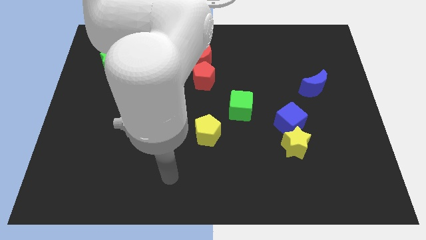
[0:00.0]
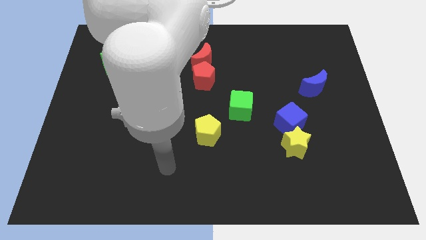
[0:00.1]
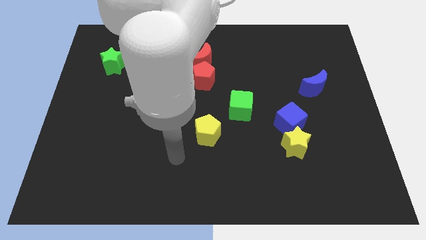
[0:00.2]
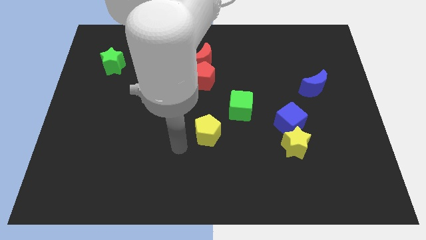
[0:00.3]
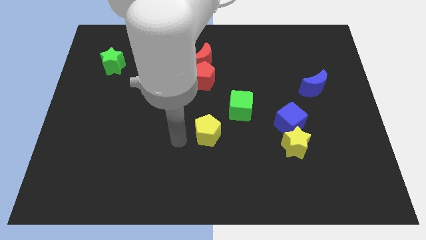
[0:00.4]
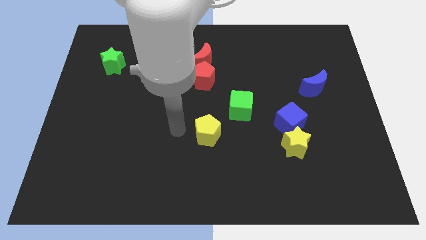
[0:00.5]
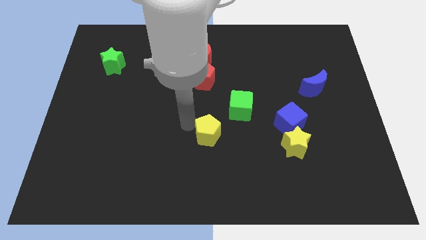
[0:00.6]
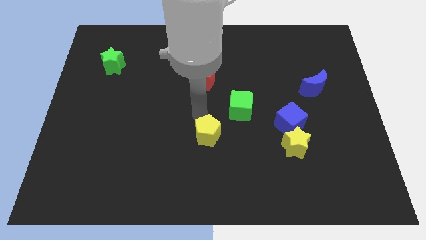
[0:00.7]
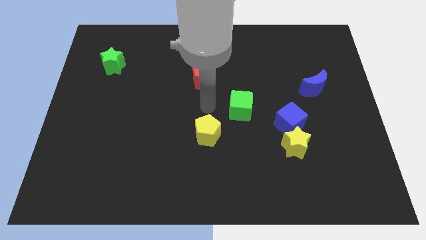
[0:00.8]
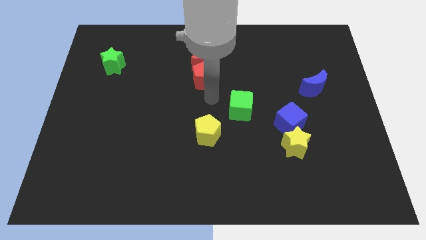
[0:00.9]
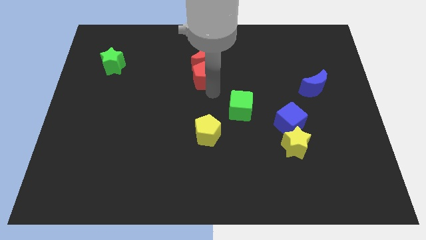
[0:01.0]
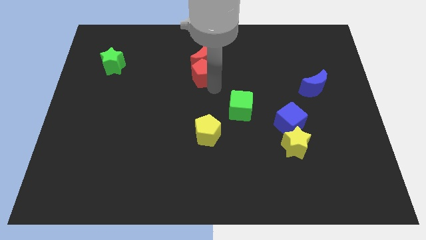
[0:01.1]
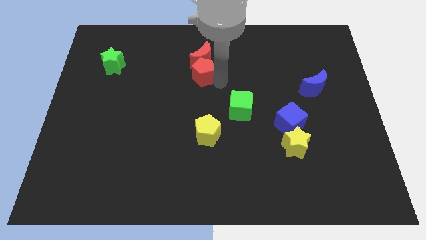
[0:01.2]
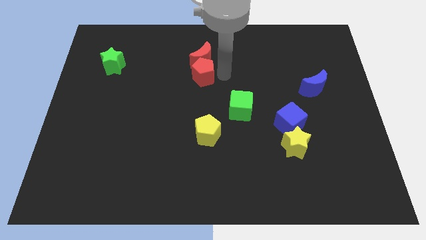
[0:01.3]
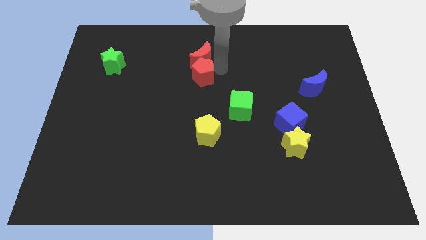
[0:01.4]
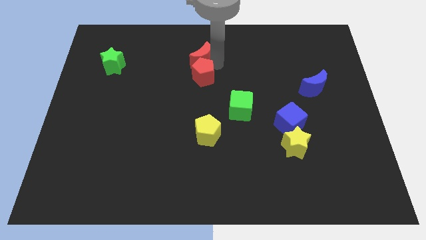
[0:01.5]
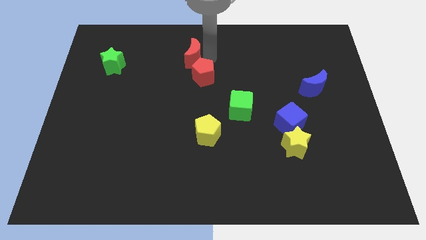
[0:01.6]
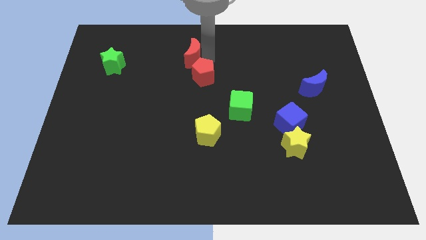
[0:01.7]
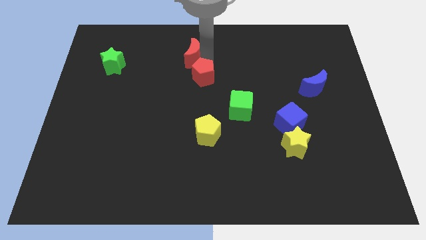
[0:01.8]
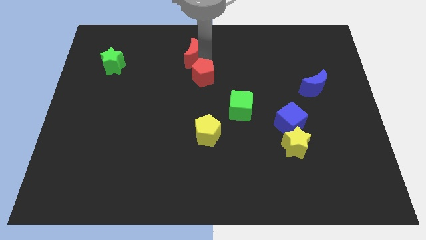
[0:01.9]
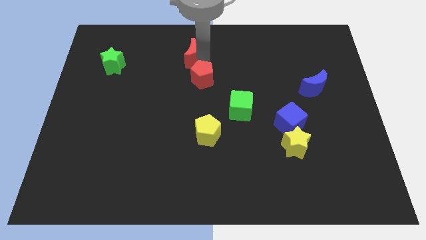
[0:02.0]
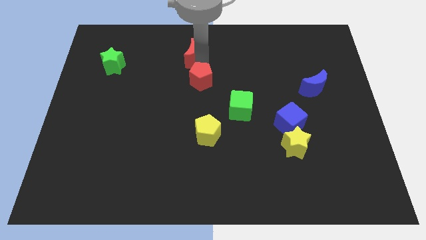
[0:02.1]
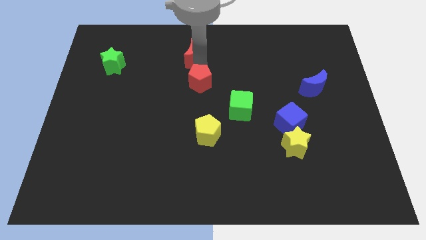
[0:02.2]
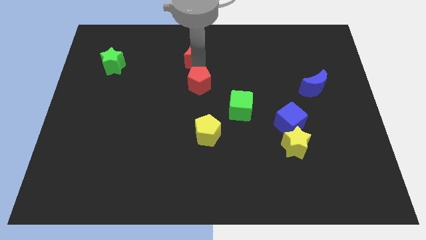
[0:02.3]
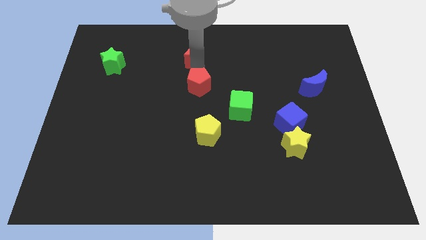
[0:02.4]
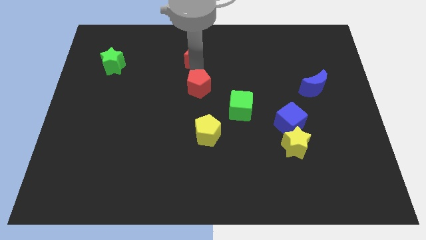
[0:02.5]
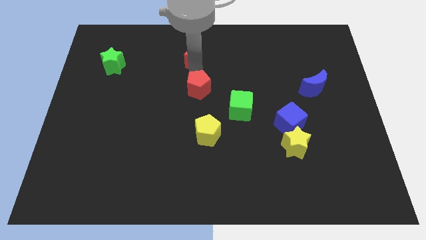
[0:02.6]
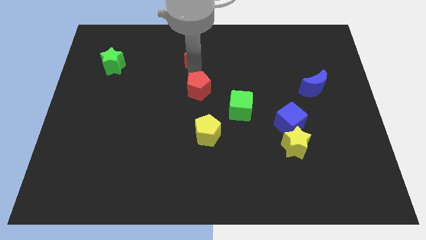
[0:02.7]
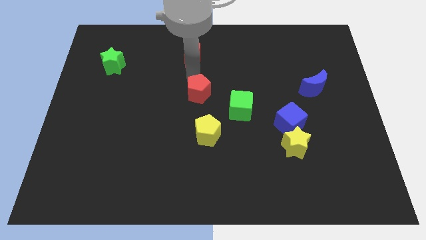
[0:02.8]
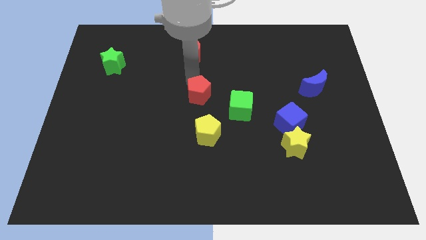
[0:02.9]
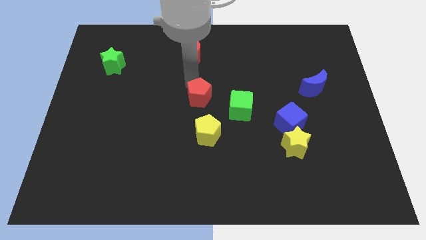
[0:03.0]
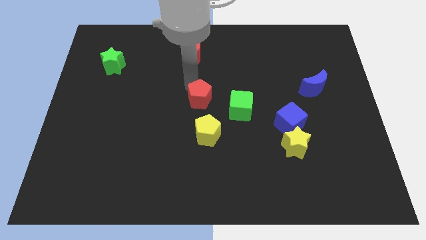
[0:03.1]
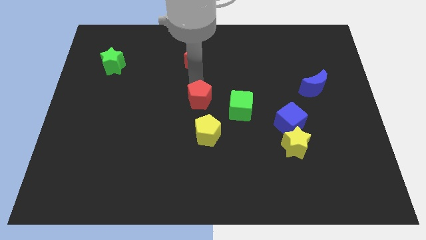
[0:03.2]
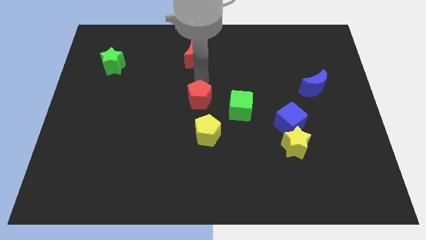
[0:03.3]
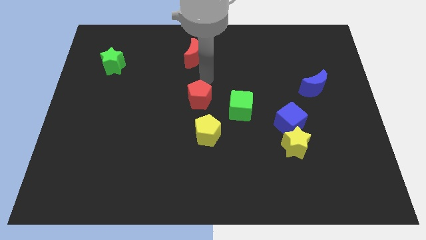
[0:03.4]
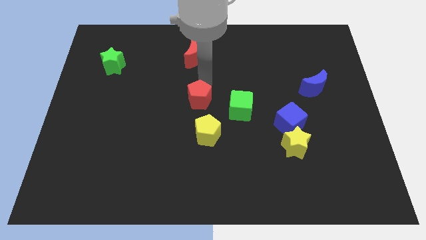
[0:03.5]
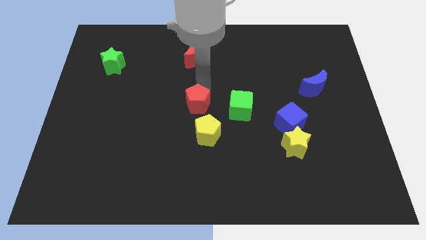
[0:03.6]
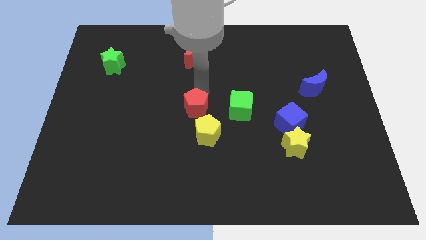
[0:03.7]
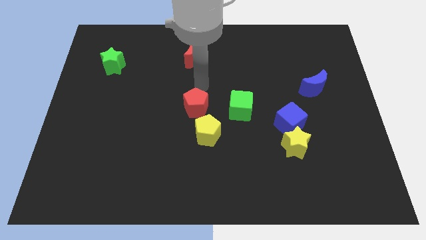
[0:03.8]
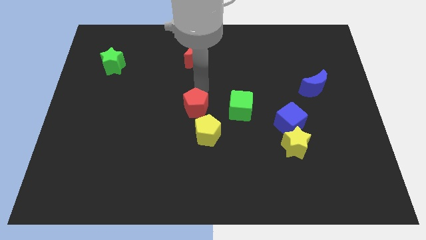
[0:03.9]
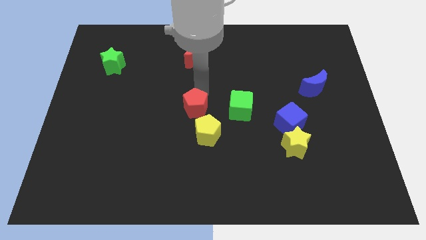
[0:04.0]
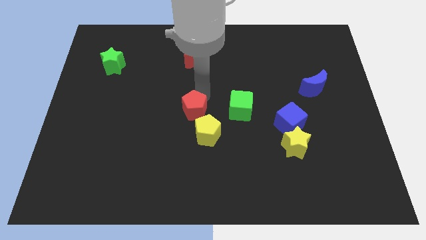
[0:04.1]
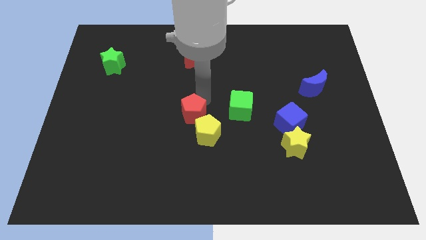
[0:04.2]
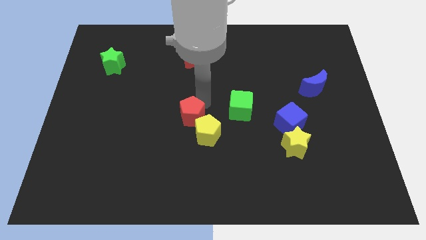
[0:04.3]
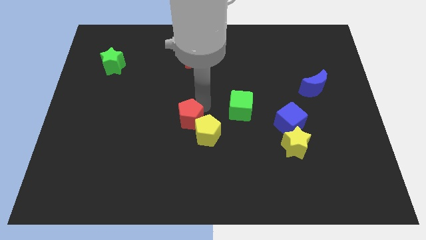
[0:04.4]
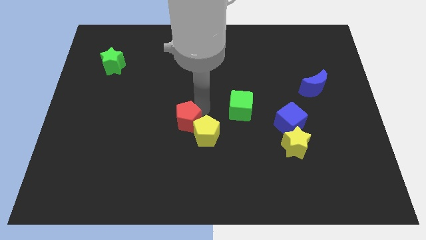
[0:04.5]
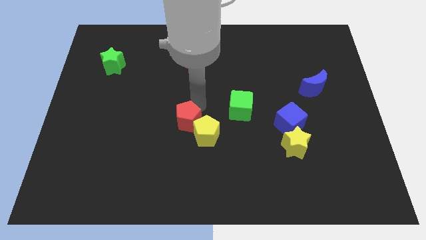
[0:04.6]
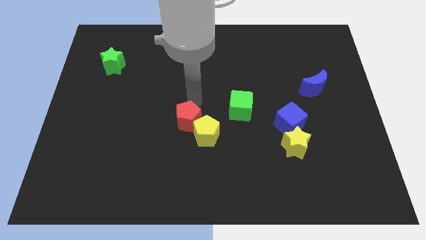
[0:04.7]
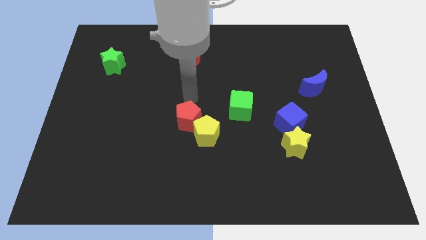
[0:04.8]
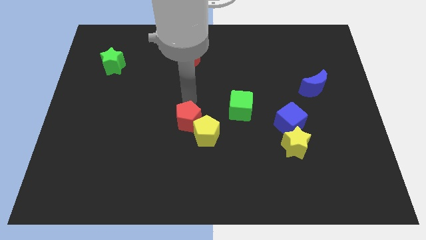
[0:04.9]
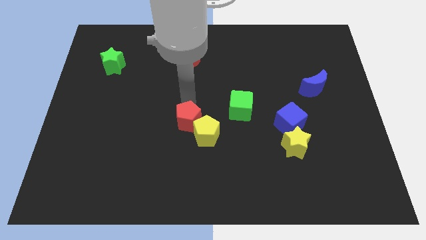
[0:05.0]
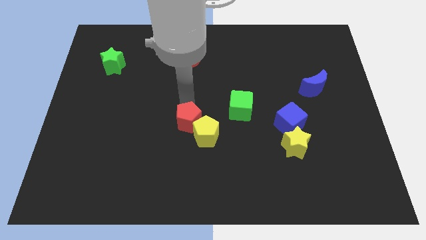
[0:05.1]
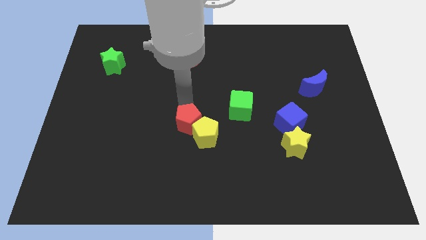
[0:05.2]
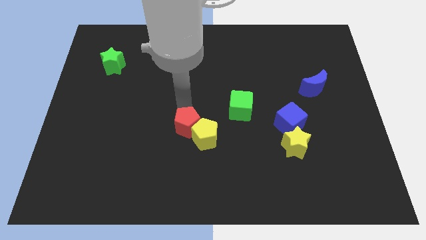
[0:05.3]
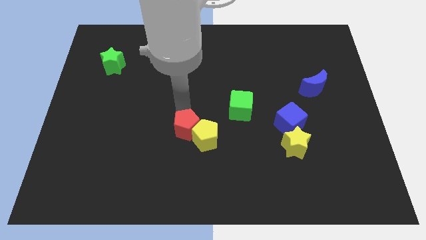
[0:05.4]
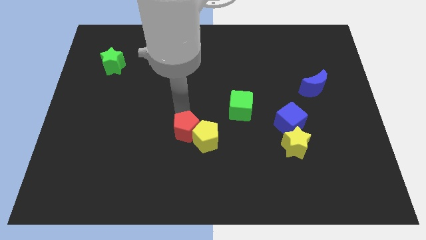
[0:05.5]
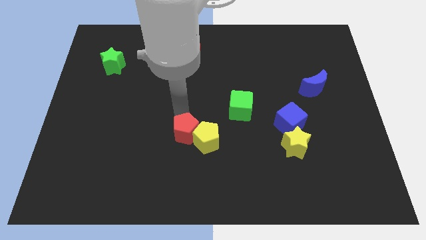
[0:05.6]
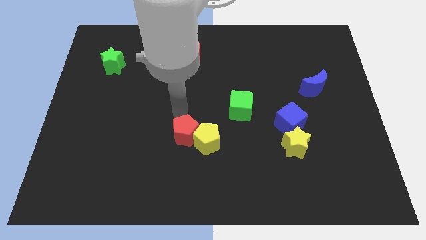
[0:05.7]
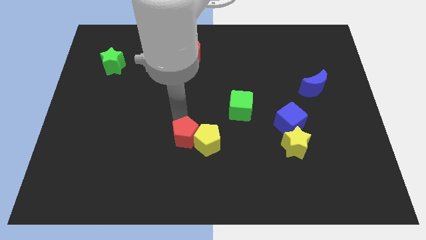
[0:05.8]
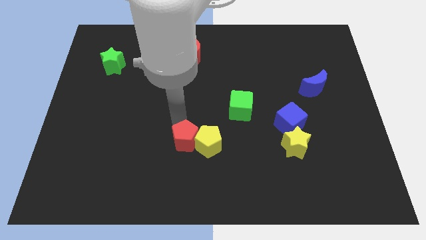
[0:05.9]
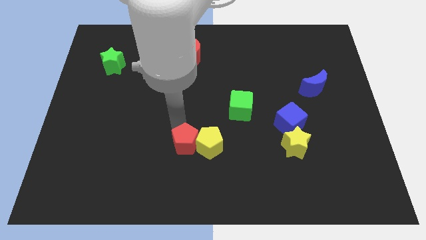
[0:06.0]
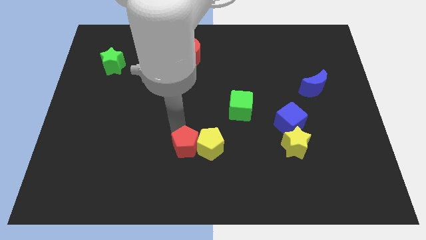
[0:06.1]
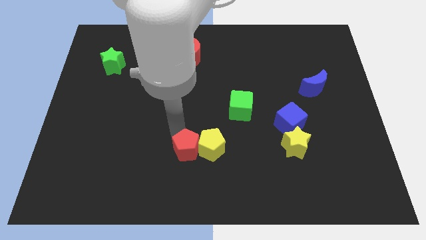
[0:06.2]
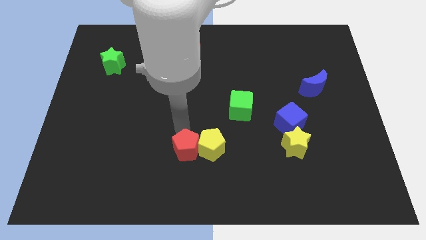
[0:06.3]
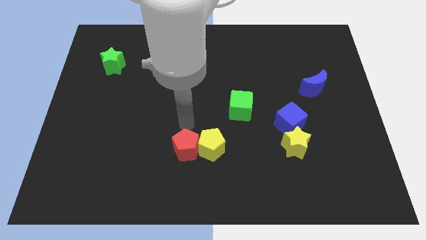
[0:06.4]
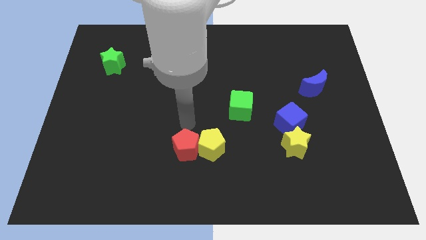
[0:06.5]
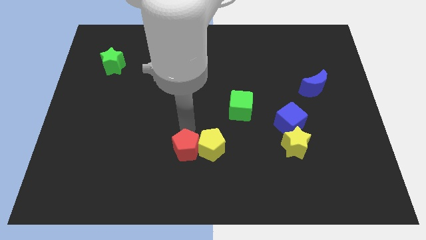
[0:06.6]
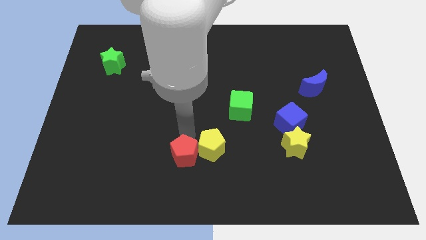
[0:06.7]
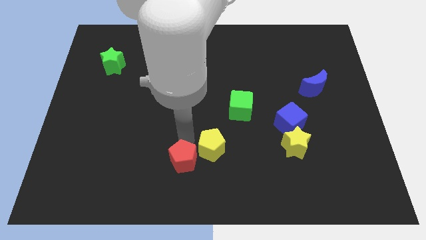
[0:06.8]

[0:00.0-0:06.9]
push the red pentagon to the bottom side
